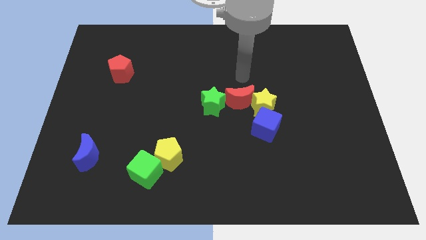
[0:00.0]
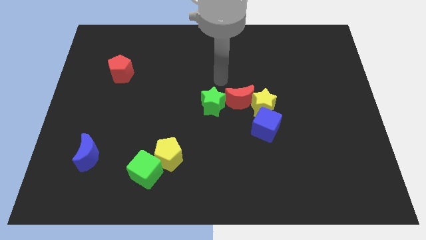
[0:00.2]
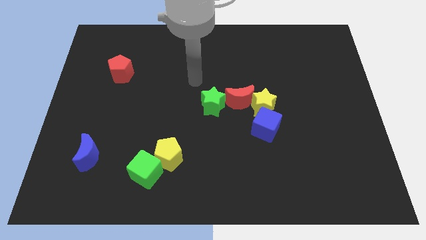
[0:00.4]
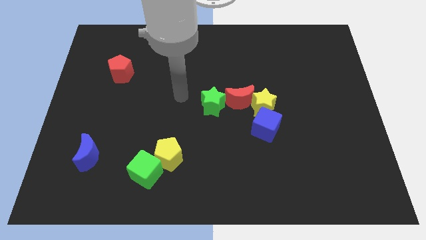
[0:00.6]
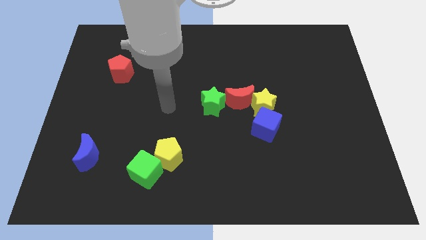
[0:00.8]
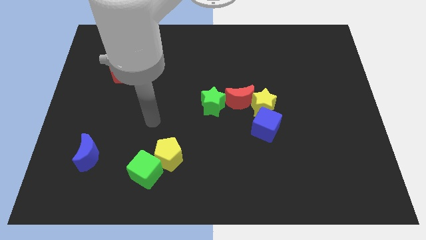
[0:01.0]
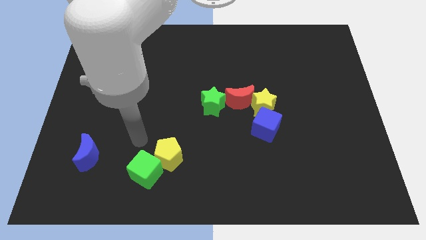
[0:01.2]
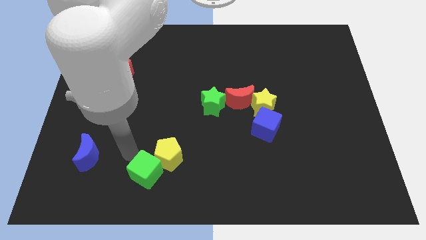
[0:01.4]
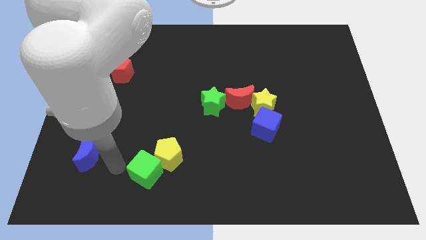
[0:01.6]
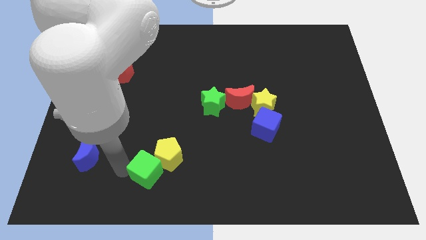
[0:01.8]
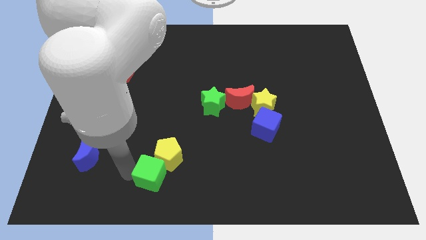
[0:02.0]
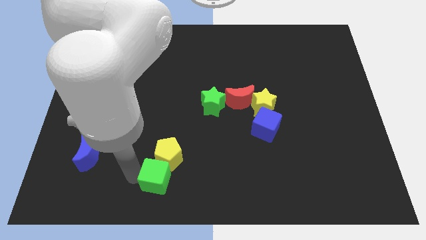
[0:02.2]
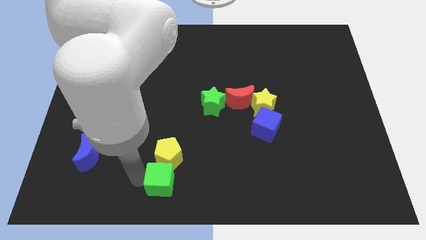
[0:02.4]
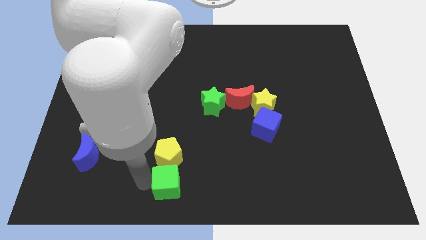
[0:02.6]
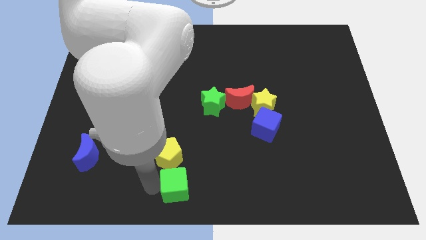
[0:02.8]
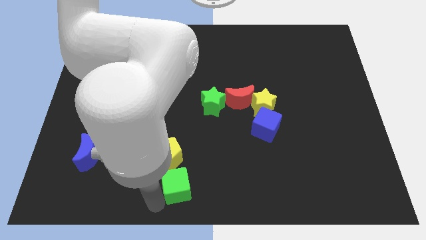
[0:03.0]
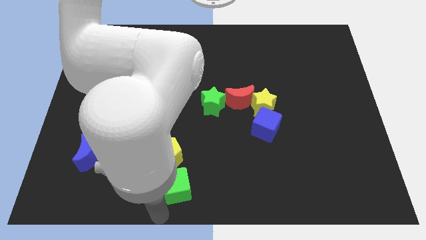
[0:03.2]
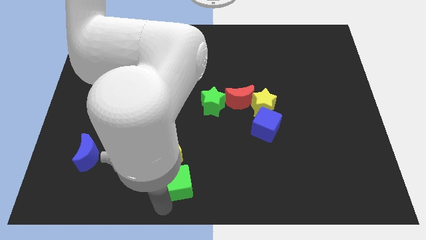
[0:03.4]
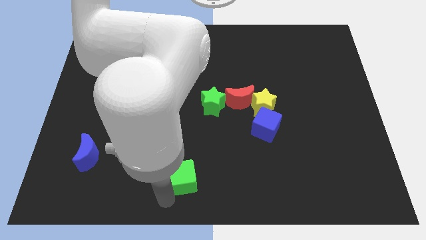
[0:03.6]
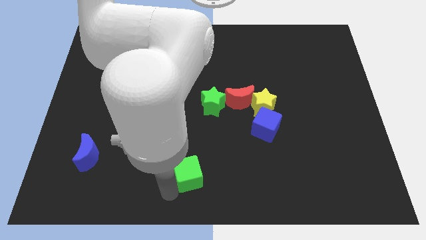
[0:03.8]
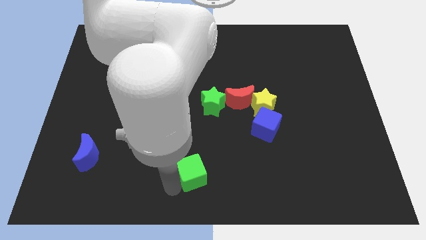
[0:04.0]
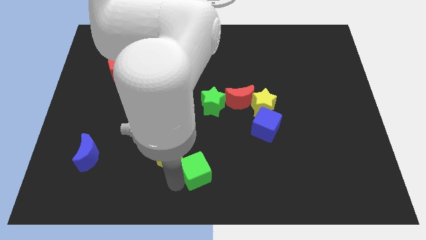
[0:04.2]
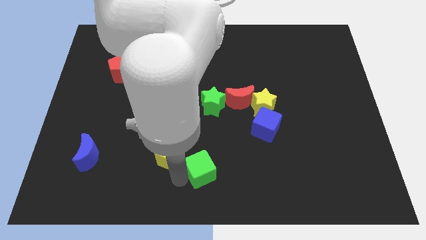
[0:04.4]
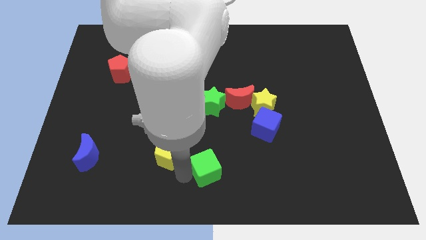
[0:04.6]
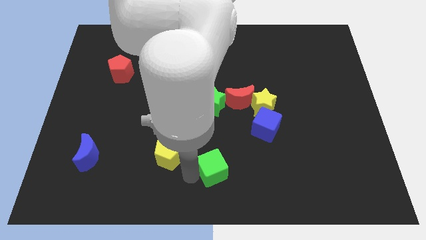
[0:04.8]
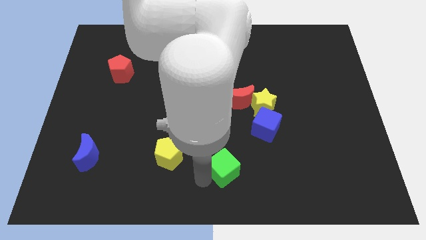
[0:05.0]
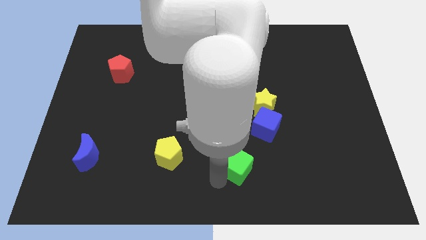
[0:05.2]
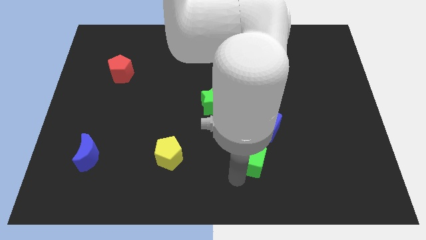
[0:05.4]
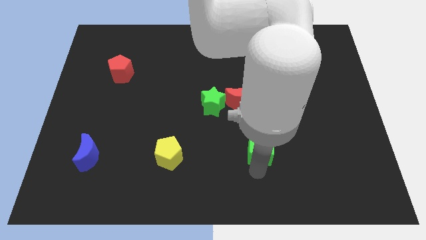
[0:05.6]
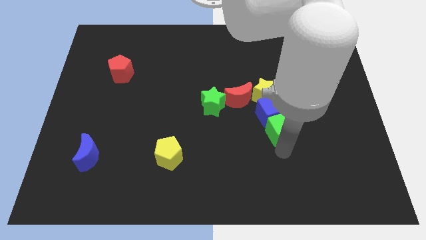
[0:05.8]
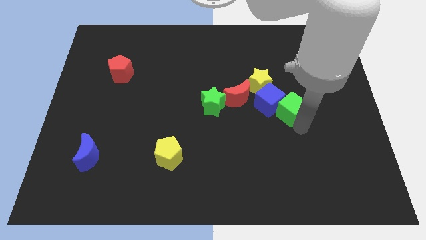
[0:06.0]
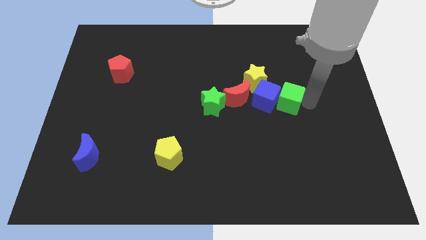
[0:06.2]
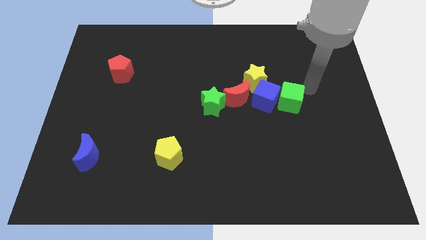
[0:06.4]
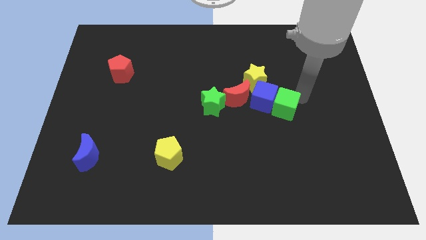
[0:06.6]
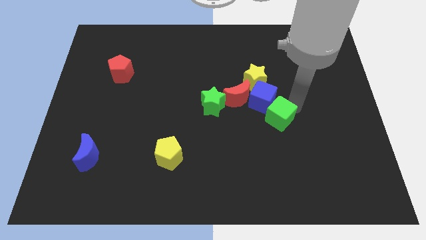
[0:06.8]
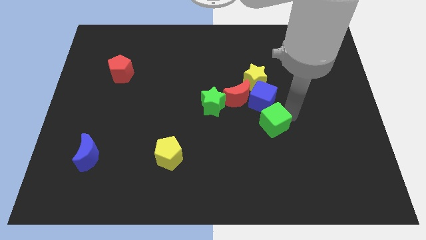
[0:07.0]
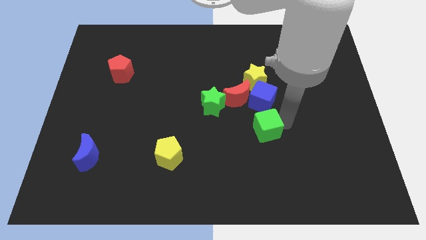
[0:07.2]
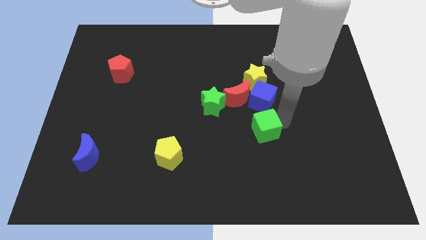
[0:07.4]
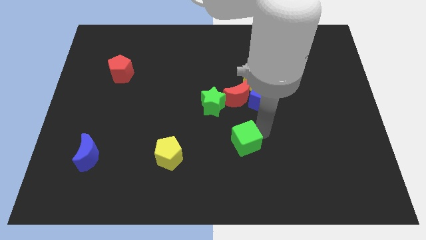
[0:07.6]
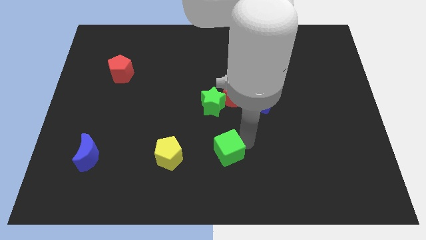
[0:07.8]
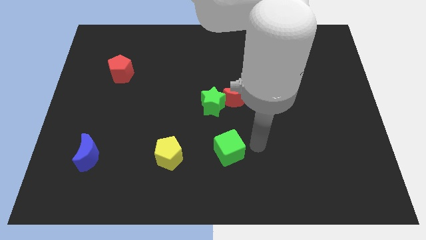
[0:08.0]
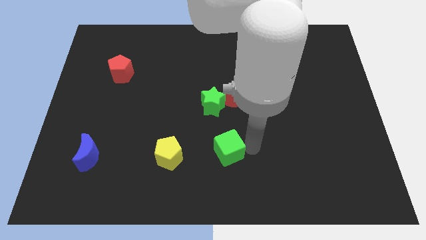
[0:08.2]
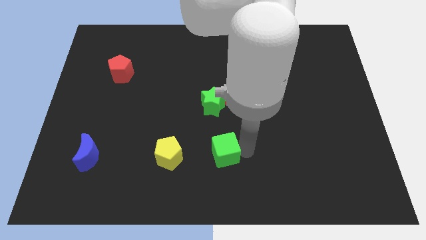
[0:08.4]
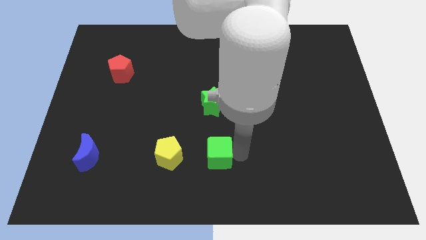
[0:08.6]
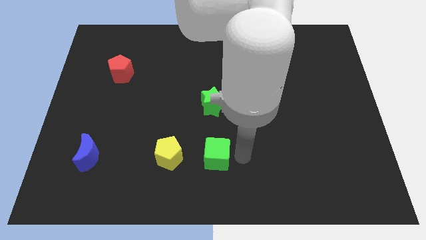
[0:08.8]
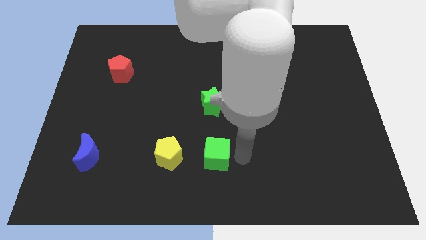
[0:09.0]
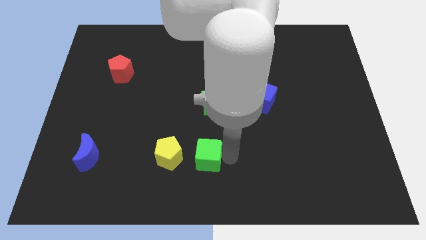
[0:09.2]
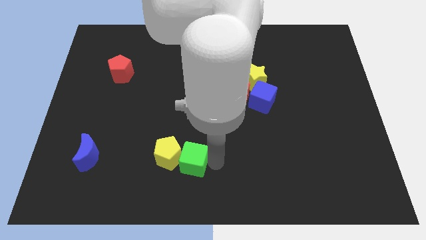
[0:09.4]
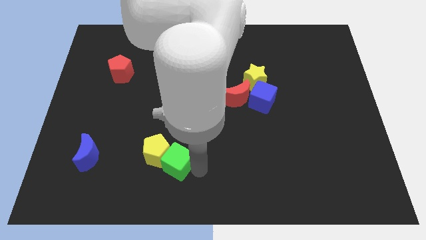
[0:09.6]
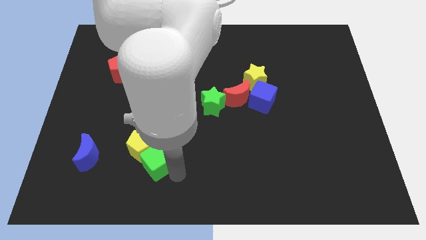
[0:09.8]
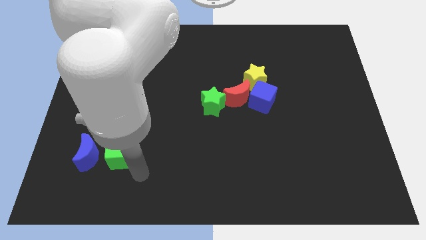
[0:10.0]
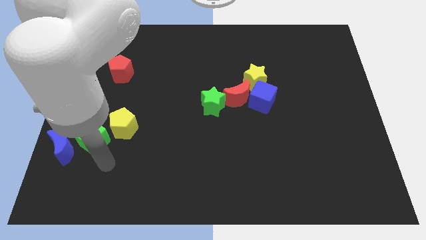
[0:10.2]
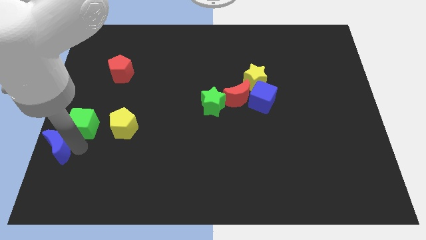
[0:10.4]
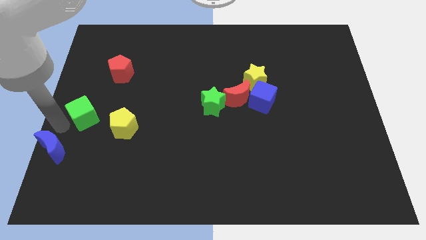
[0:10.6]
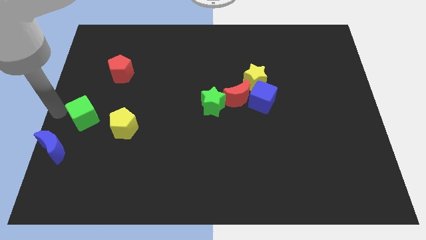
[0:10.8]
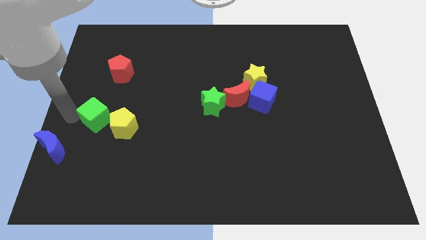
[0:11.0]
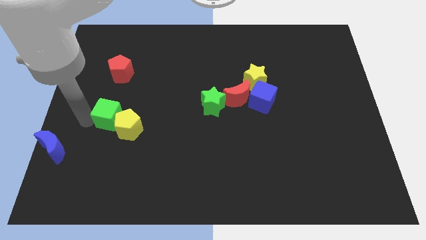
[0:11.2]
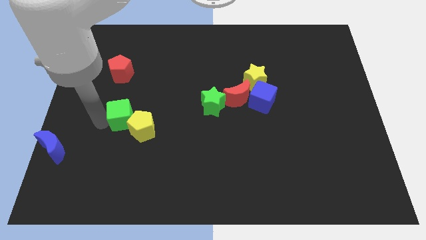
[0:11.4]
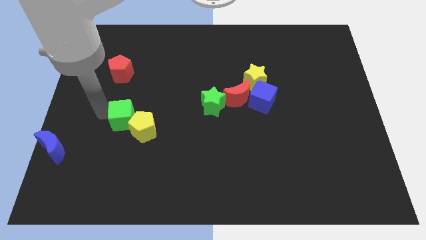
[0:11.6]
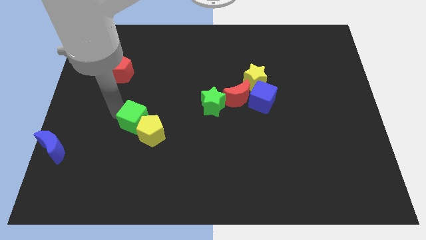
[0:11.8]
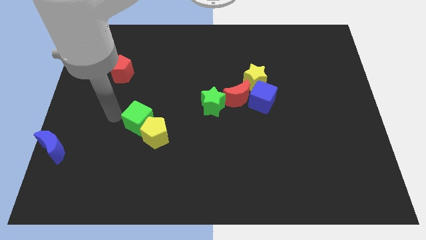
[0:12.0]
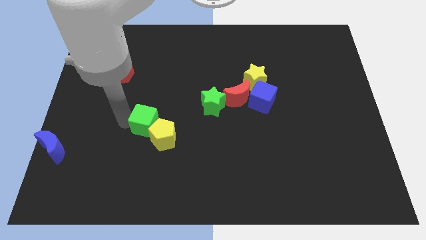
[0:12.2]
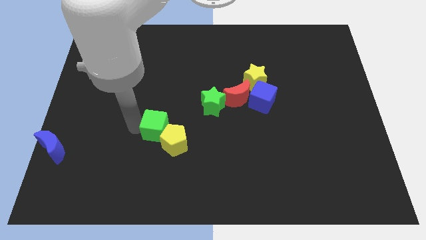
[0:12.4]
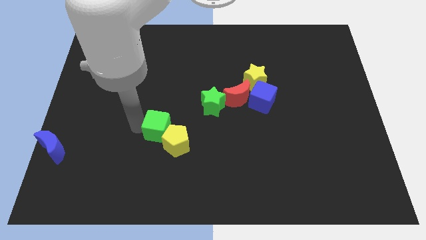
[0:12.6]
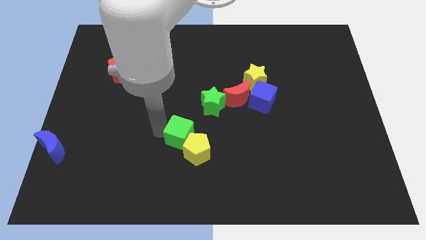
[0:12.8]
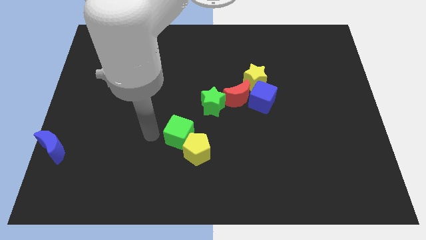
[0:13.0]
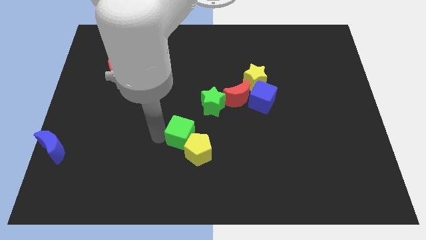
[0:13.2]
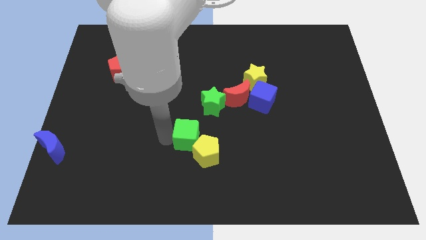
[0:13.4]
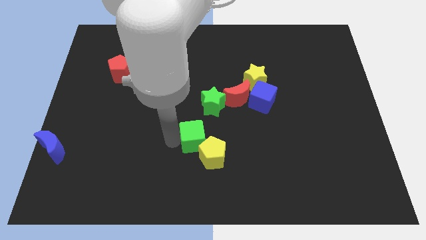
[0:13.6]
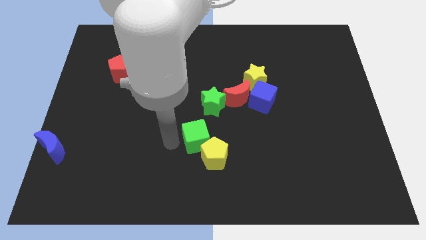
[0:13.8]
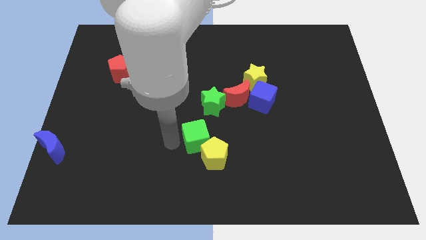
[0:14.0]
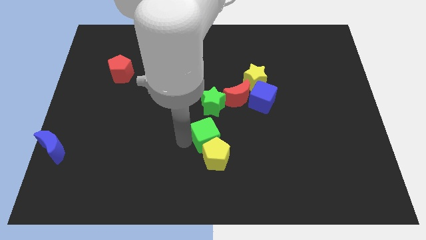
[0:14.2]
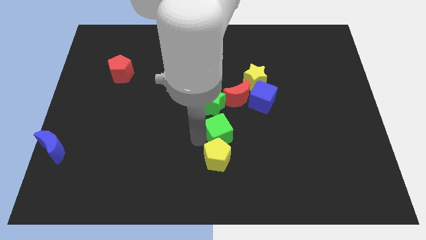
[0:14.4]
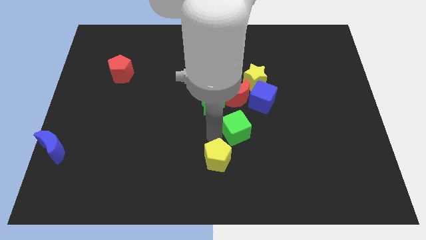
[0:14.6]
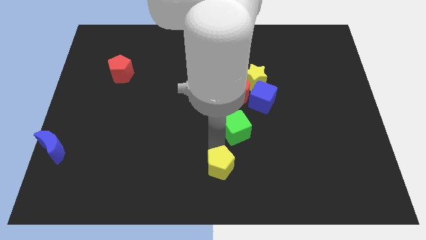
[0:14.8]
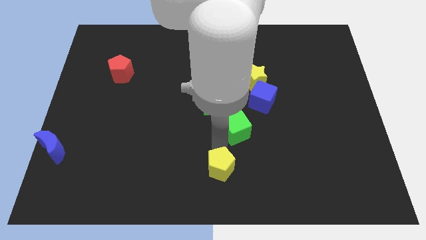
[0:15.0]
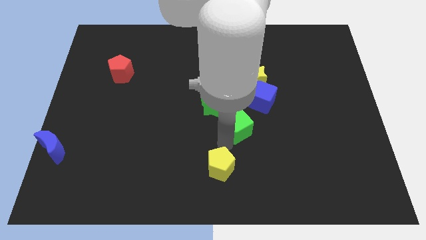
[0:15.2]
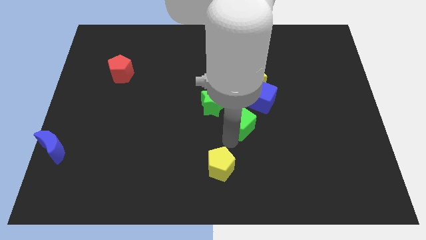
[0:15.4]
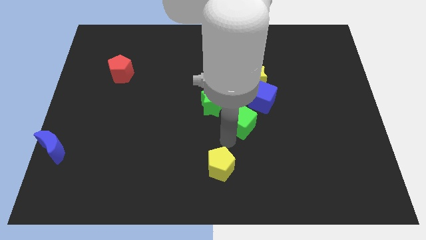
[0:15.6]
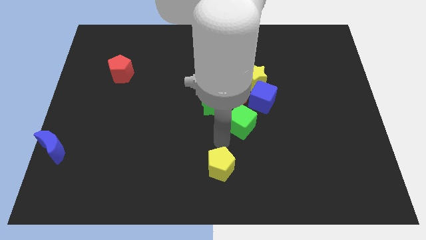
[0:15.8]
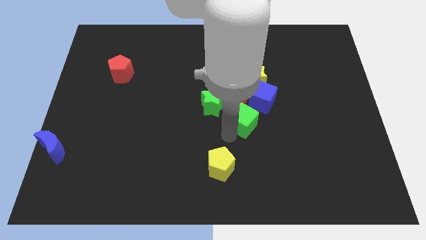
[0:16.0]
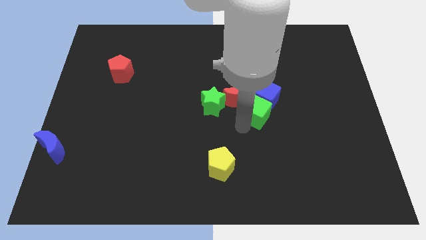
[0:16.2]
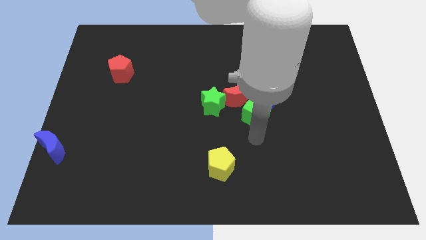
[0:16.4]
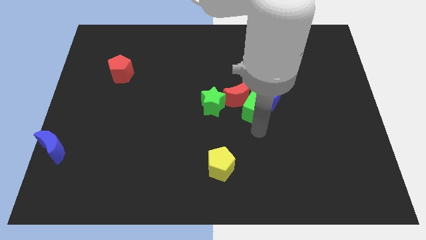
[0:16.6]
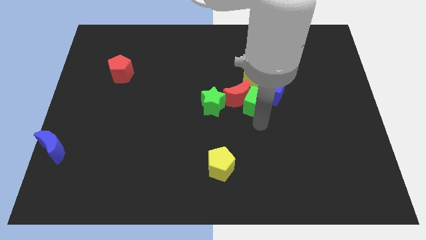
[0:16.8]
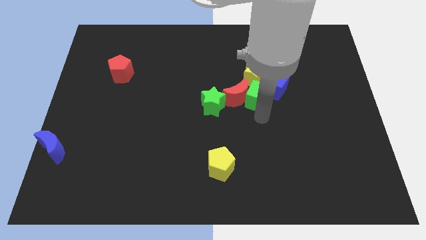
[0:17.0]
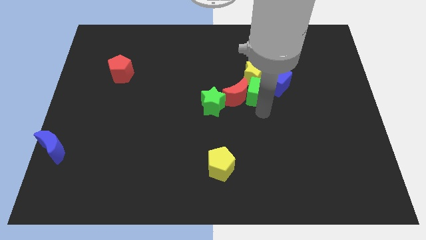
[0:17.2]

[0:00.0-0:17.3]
put the green cube close to the yellow star
